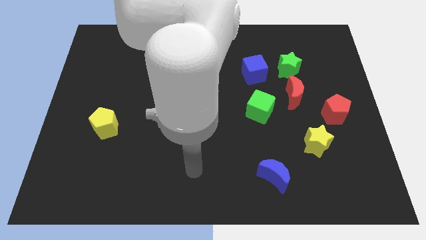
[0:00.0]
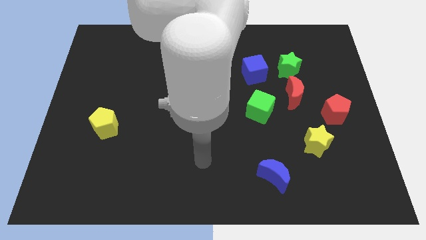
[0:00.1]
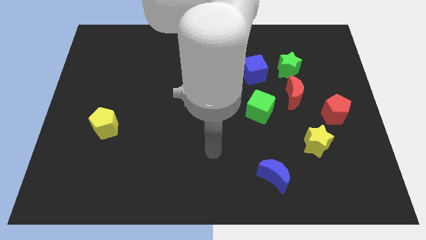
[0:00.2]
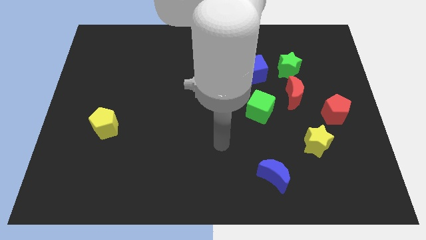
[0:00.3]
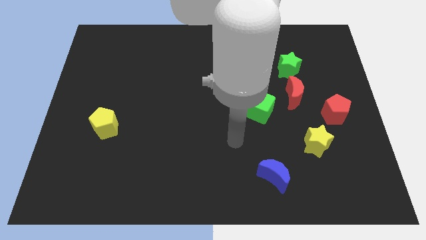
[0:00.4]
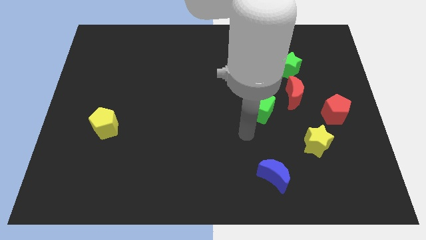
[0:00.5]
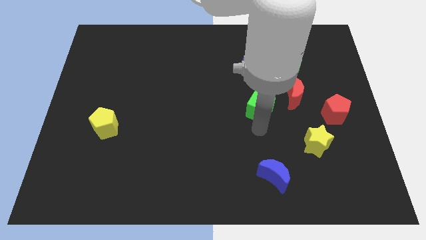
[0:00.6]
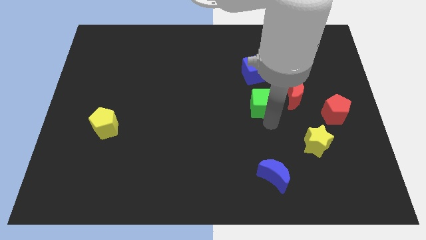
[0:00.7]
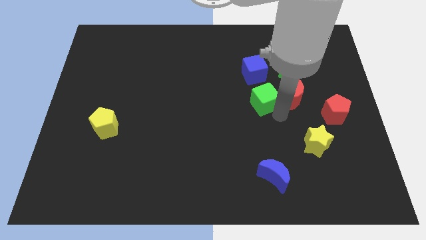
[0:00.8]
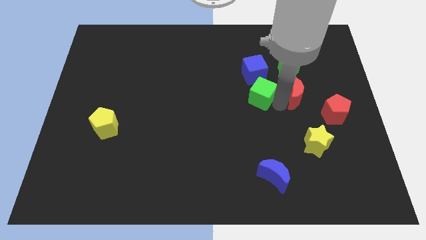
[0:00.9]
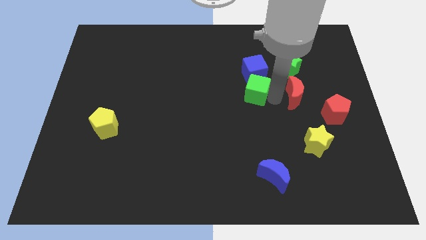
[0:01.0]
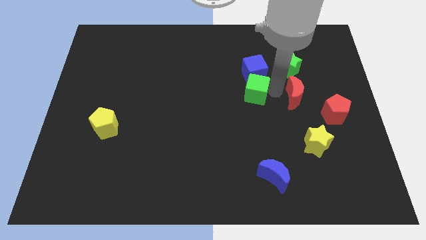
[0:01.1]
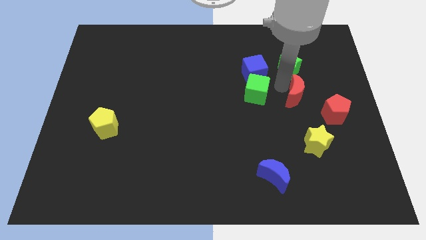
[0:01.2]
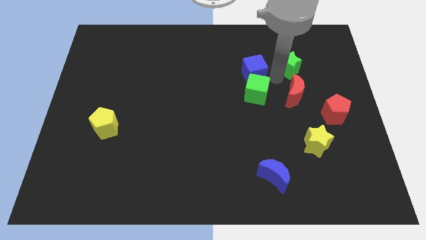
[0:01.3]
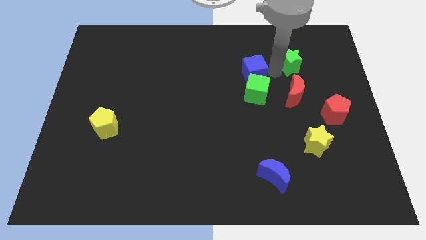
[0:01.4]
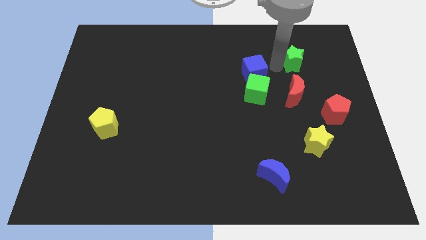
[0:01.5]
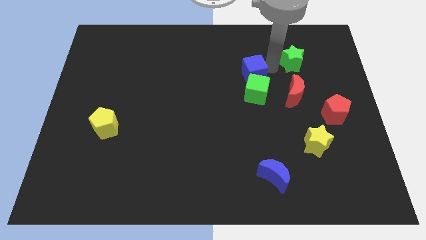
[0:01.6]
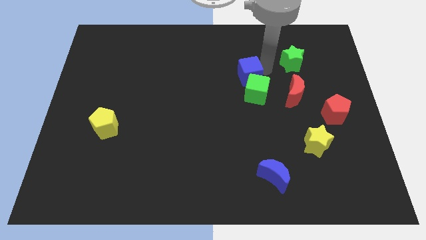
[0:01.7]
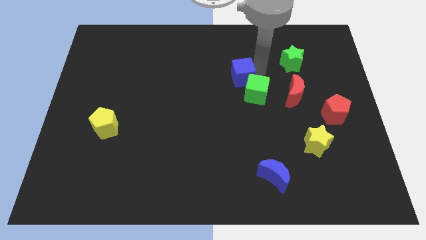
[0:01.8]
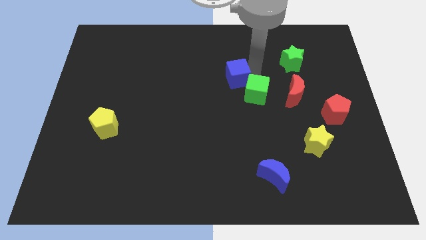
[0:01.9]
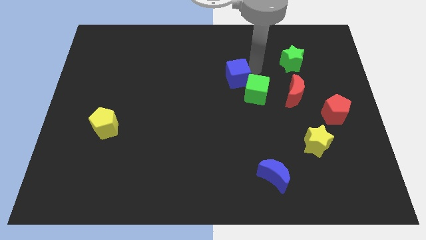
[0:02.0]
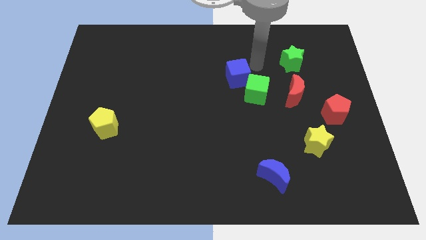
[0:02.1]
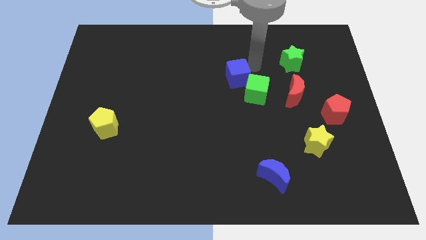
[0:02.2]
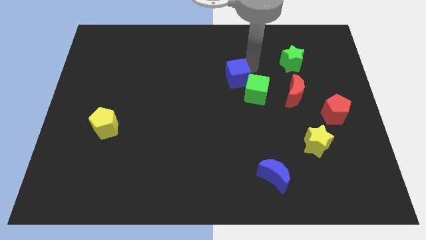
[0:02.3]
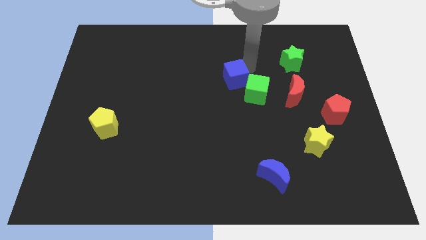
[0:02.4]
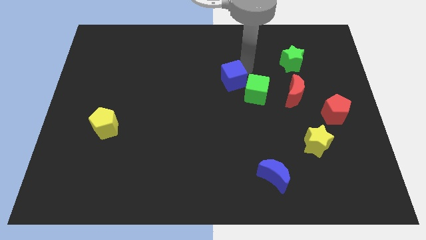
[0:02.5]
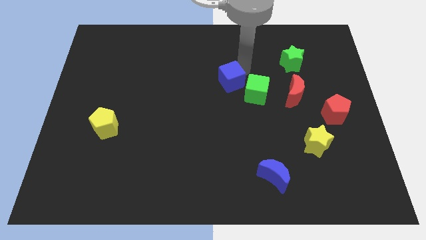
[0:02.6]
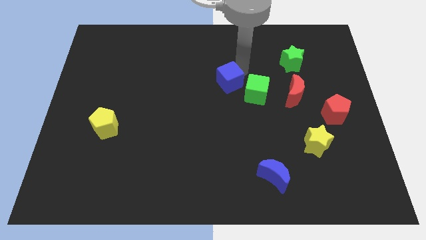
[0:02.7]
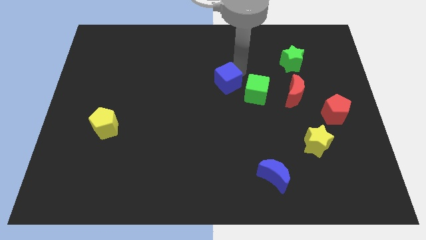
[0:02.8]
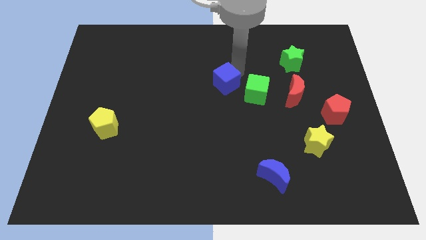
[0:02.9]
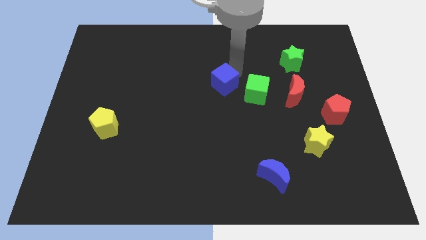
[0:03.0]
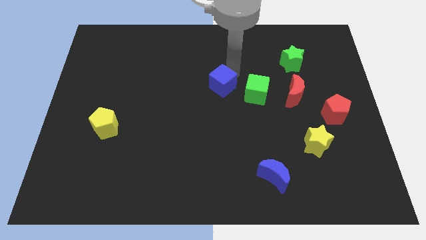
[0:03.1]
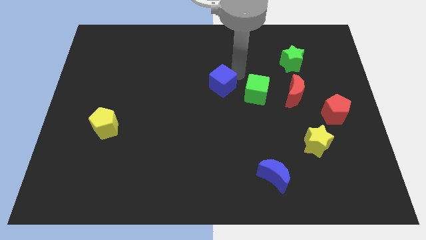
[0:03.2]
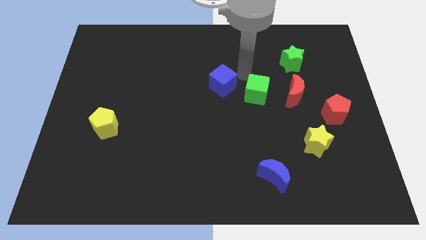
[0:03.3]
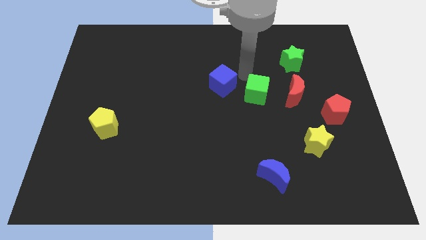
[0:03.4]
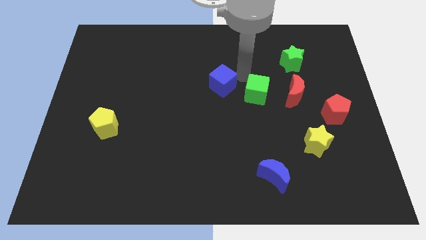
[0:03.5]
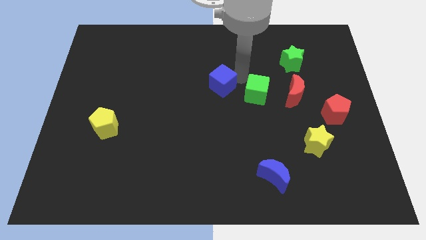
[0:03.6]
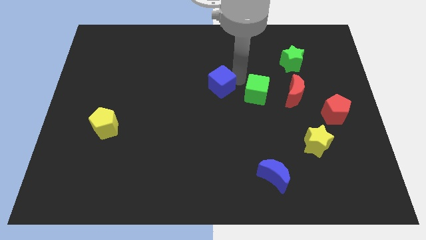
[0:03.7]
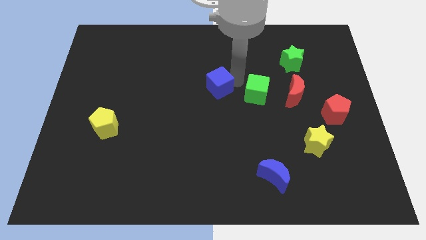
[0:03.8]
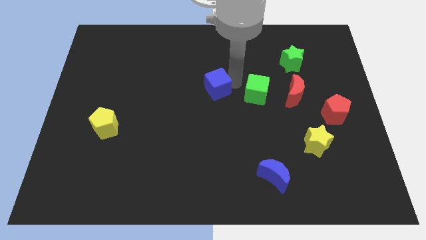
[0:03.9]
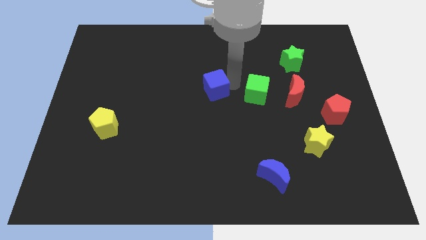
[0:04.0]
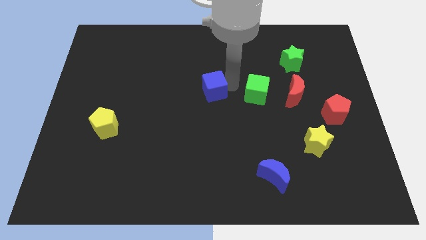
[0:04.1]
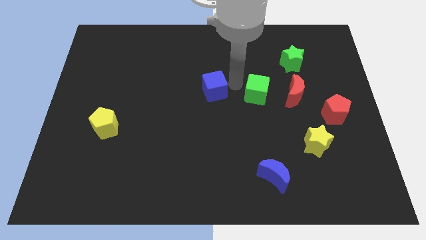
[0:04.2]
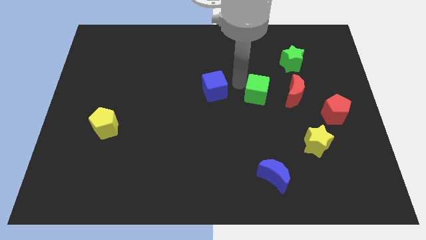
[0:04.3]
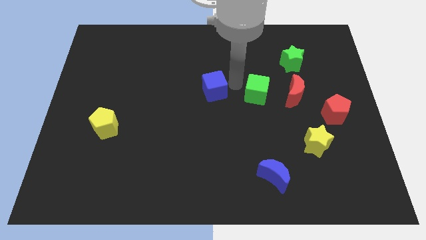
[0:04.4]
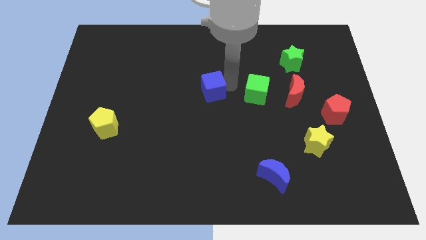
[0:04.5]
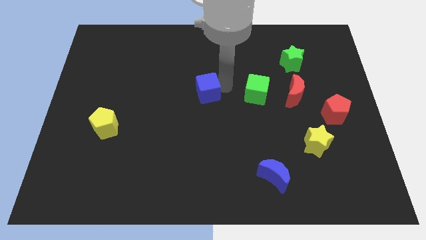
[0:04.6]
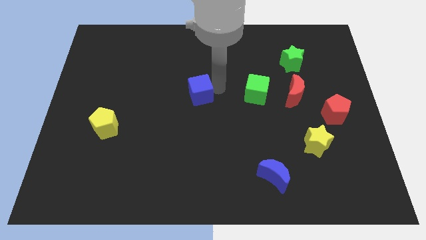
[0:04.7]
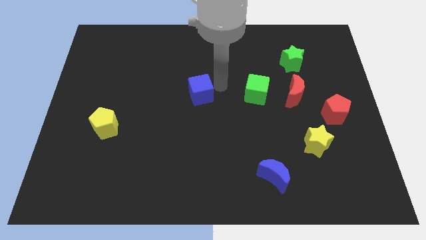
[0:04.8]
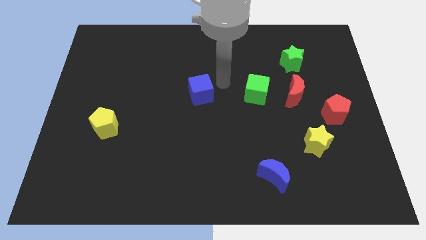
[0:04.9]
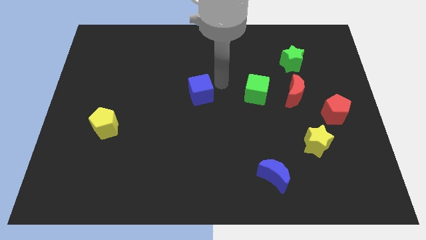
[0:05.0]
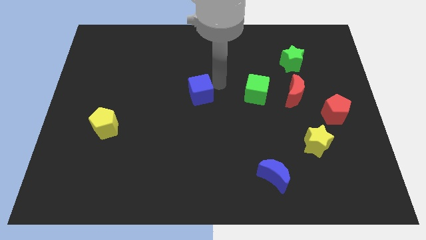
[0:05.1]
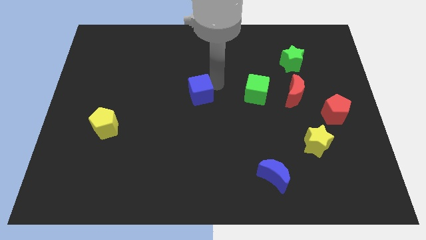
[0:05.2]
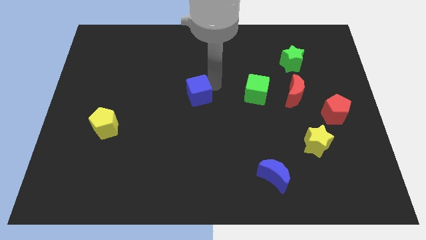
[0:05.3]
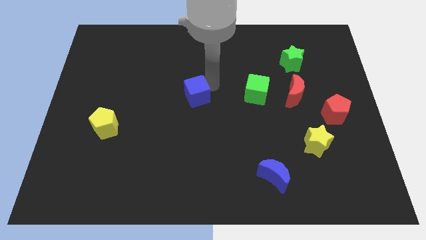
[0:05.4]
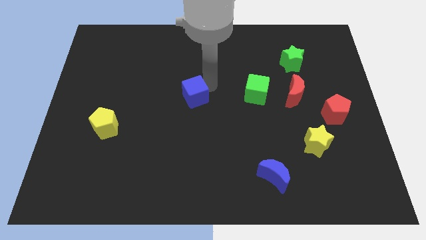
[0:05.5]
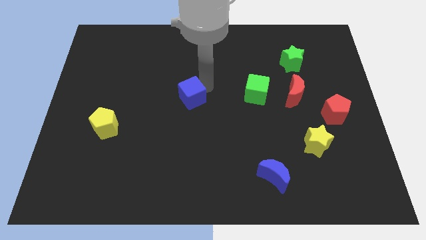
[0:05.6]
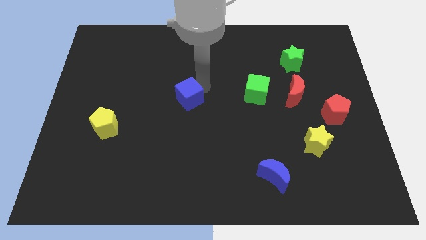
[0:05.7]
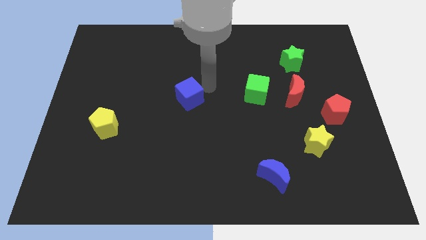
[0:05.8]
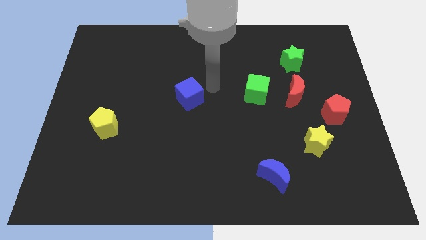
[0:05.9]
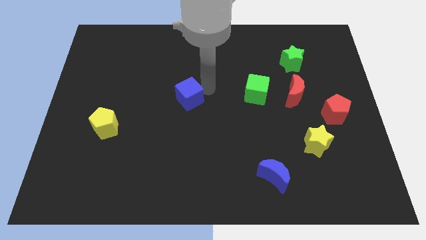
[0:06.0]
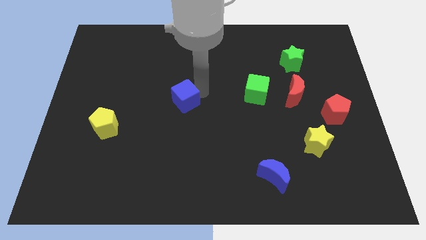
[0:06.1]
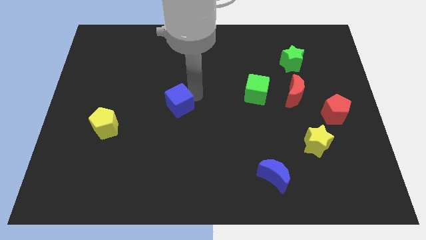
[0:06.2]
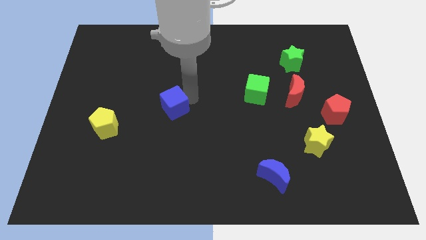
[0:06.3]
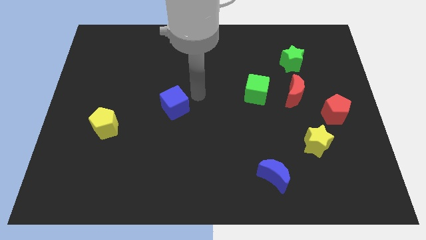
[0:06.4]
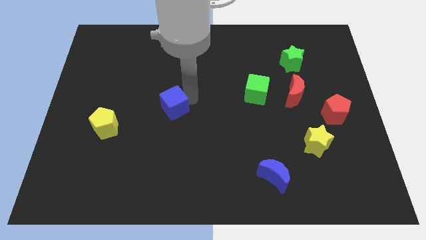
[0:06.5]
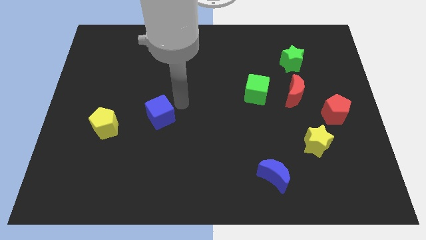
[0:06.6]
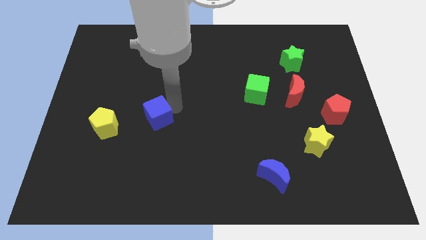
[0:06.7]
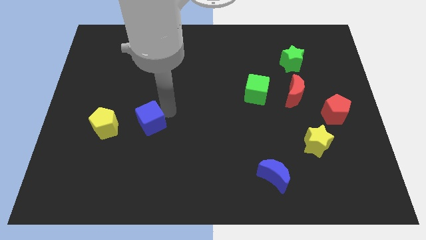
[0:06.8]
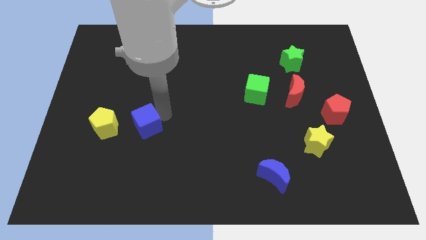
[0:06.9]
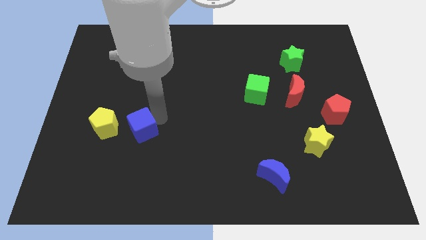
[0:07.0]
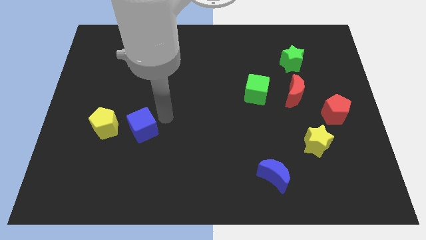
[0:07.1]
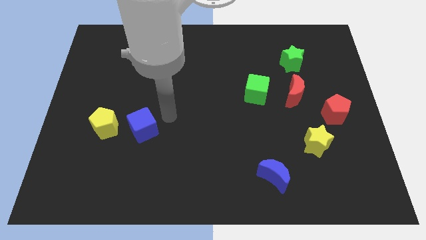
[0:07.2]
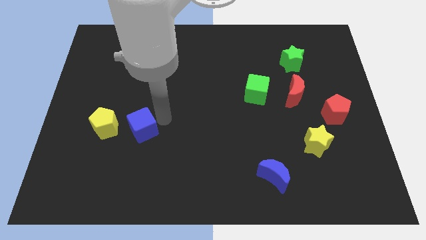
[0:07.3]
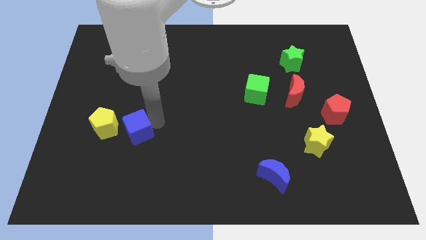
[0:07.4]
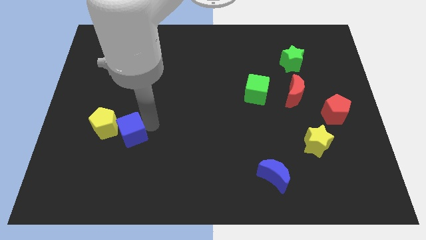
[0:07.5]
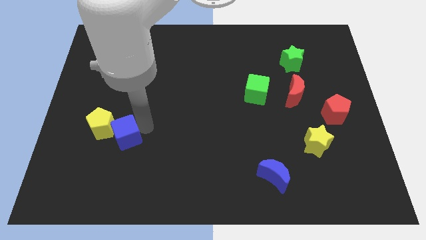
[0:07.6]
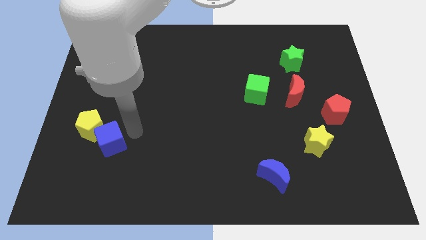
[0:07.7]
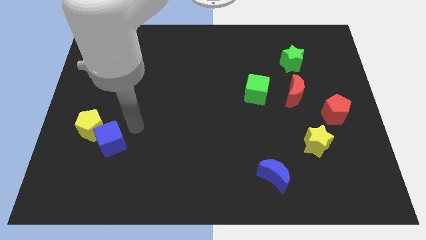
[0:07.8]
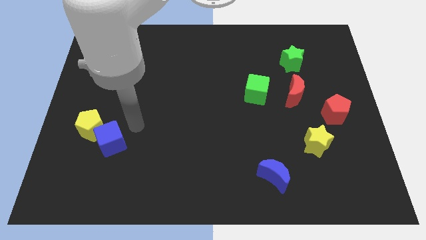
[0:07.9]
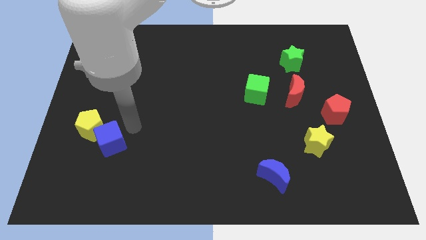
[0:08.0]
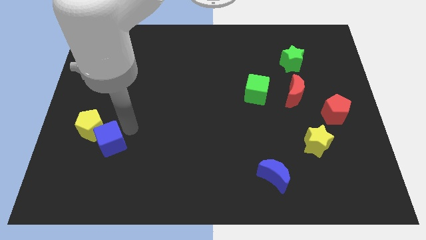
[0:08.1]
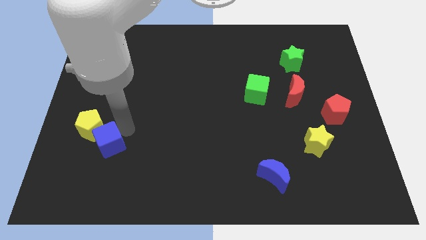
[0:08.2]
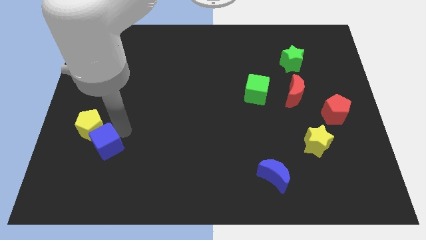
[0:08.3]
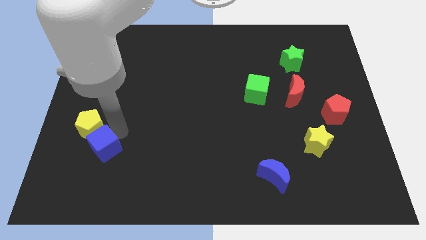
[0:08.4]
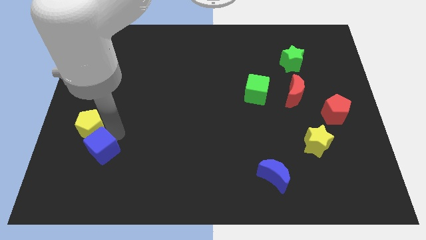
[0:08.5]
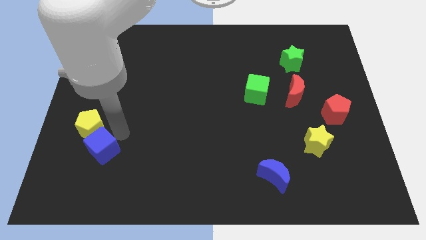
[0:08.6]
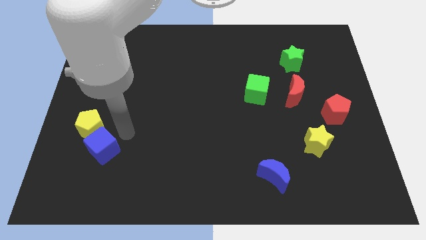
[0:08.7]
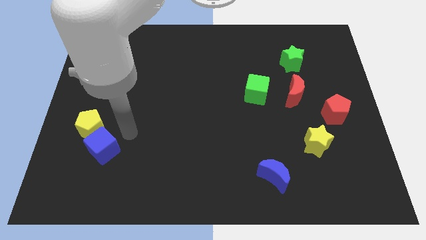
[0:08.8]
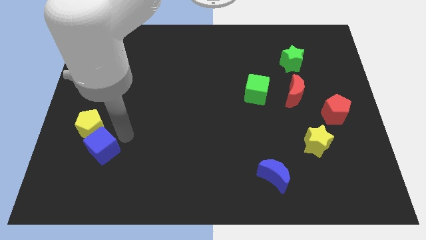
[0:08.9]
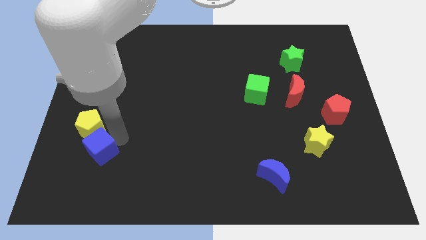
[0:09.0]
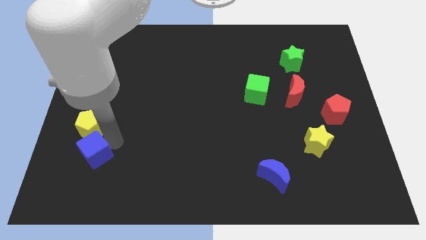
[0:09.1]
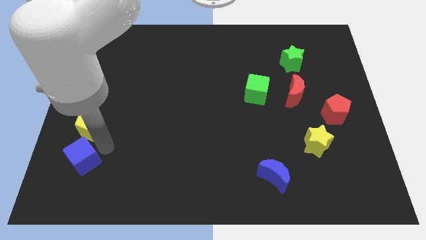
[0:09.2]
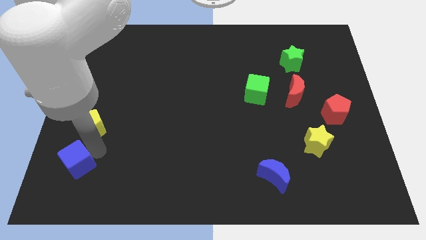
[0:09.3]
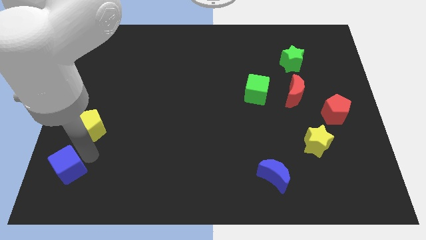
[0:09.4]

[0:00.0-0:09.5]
put the blue cube to the bottom left
